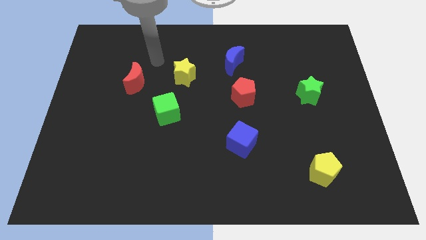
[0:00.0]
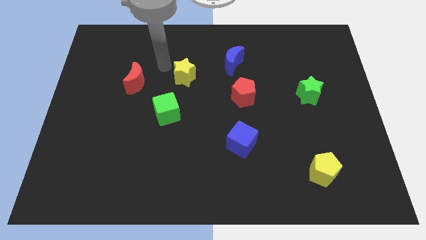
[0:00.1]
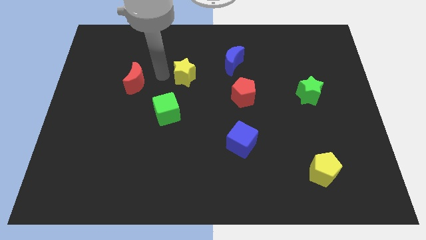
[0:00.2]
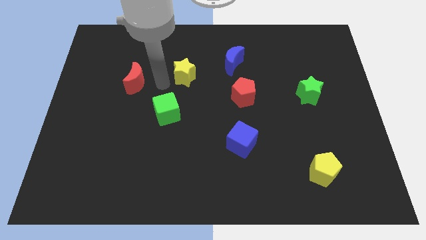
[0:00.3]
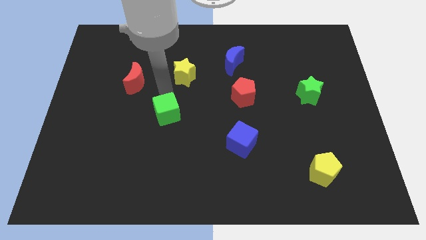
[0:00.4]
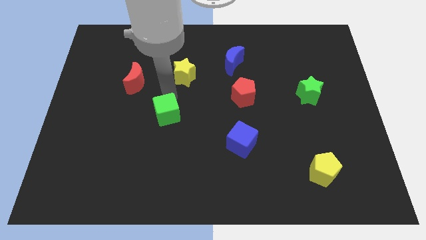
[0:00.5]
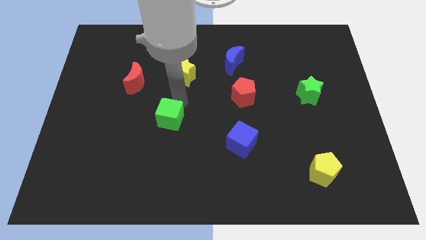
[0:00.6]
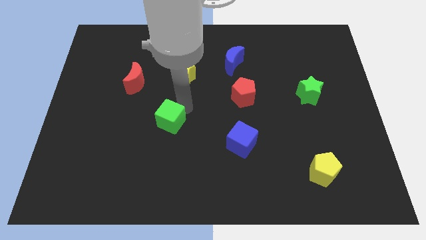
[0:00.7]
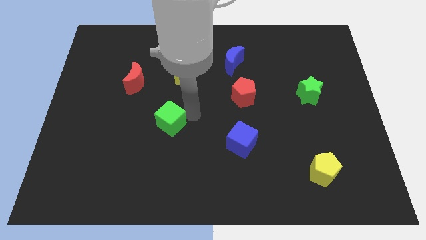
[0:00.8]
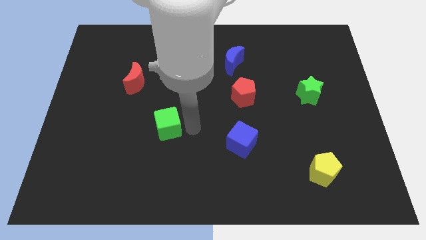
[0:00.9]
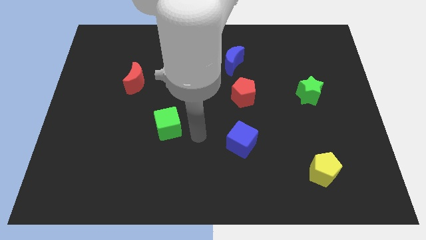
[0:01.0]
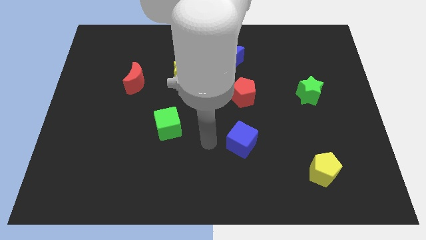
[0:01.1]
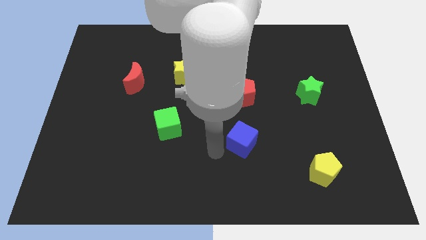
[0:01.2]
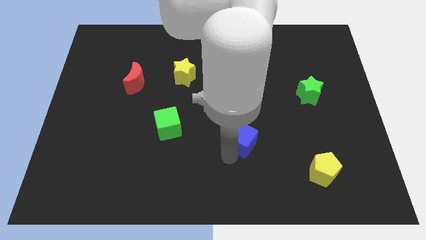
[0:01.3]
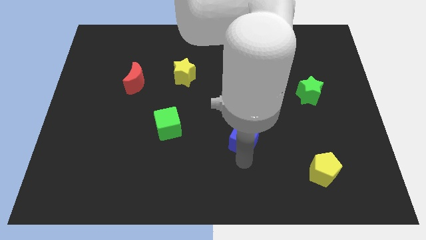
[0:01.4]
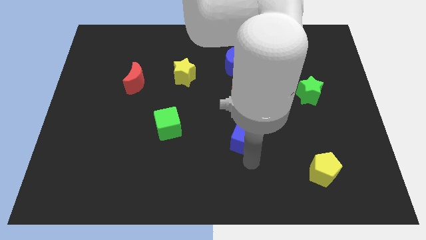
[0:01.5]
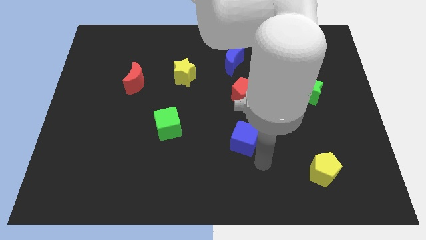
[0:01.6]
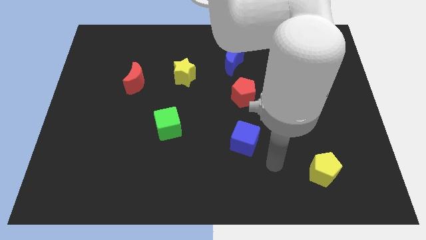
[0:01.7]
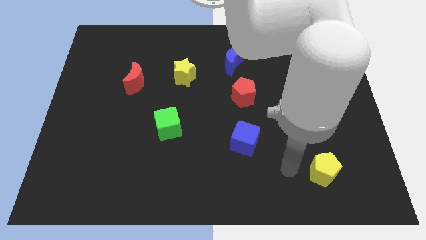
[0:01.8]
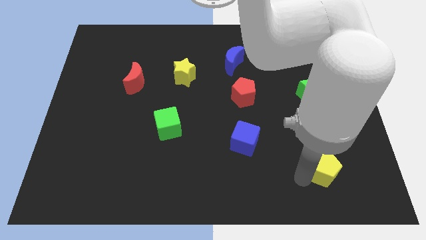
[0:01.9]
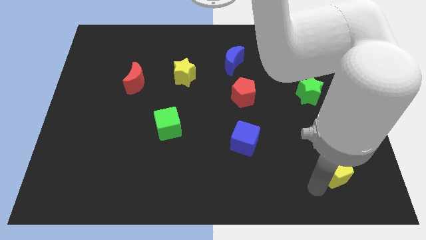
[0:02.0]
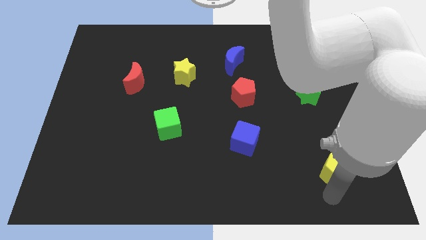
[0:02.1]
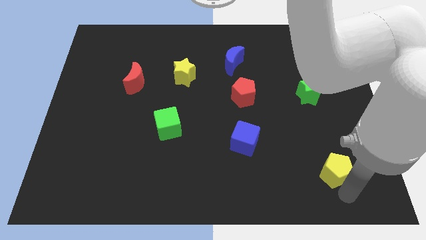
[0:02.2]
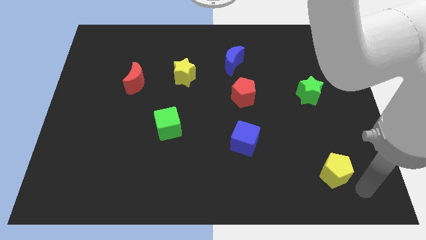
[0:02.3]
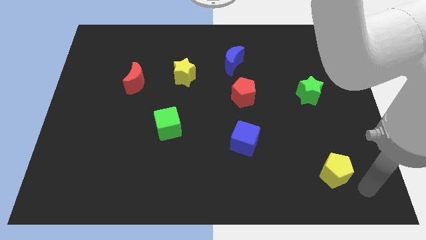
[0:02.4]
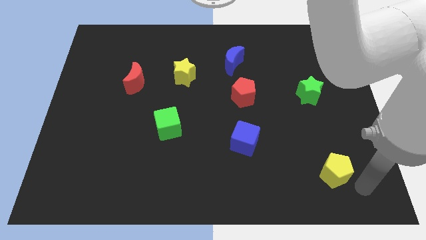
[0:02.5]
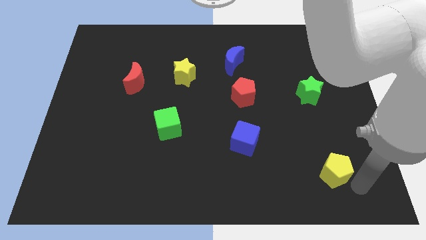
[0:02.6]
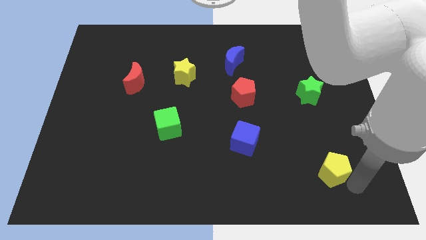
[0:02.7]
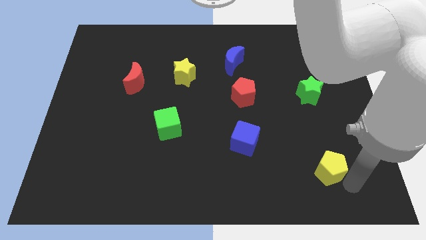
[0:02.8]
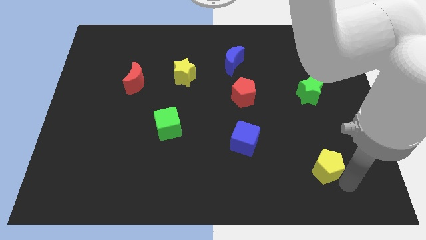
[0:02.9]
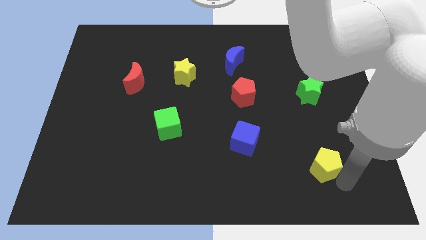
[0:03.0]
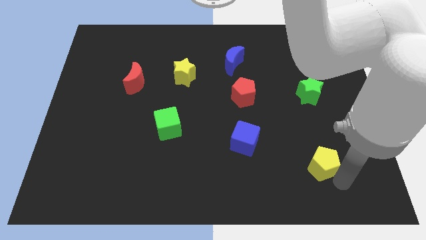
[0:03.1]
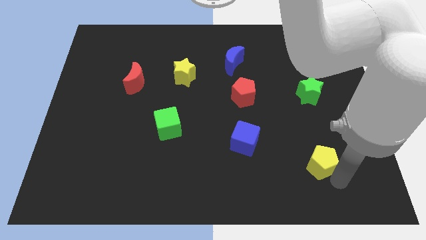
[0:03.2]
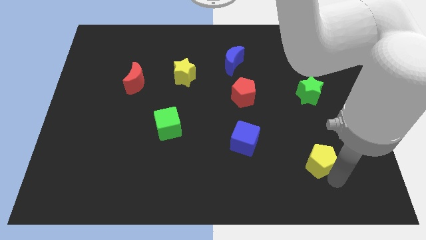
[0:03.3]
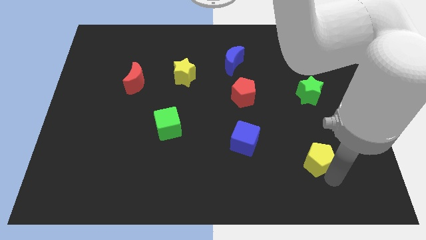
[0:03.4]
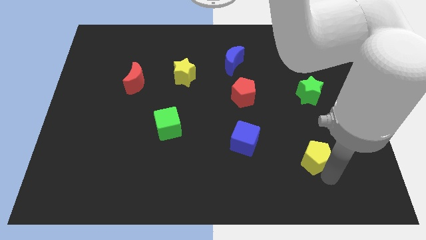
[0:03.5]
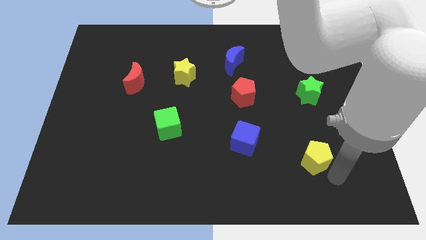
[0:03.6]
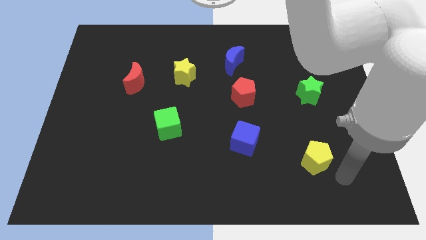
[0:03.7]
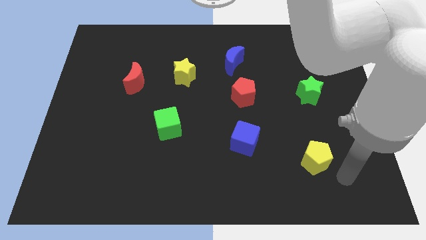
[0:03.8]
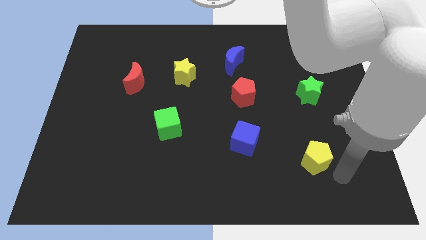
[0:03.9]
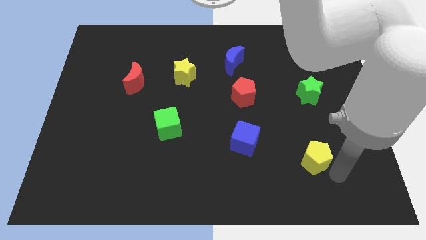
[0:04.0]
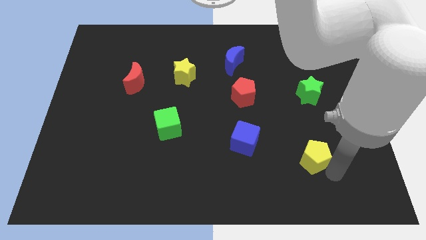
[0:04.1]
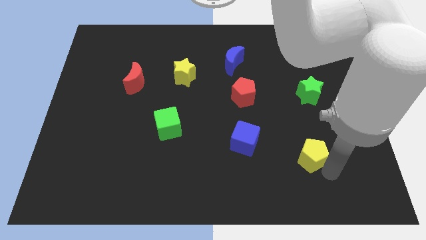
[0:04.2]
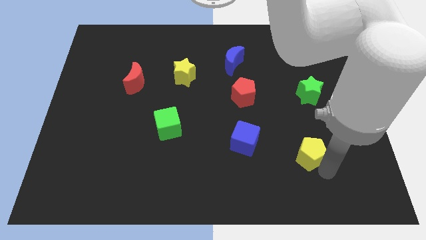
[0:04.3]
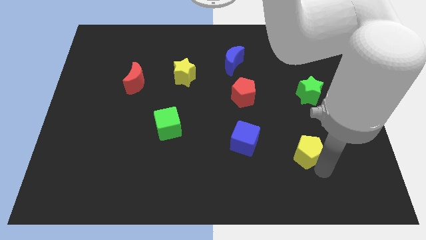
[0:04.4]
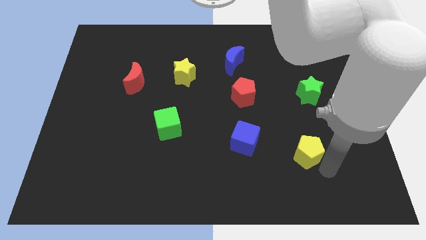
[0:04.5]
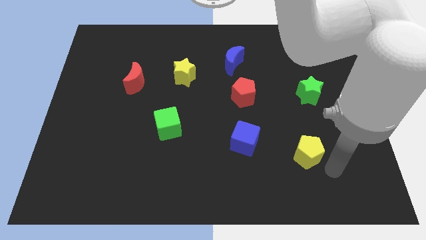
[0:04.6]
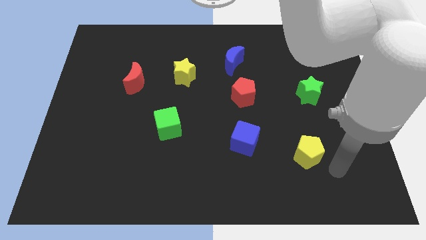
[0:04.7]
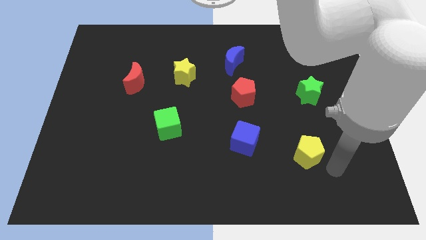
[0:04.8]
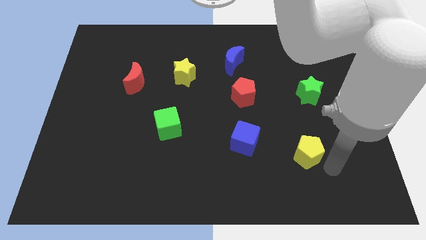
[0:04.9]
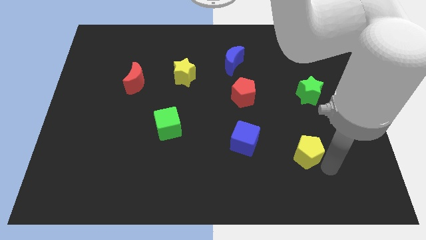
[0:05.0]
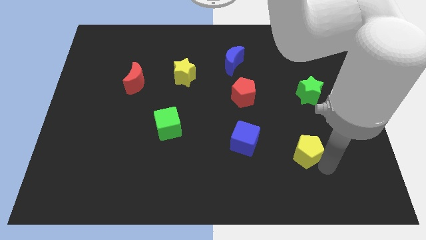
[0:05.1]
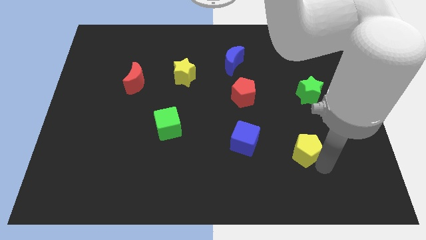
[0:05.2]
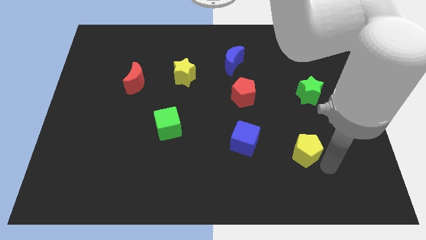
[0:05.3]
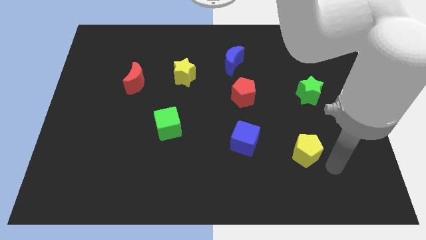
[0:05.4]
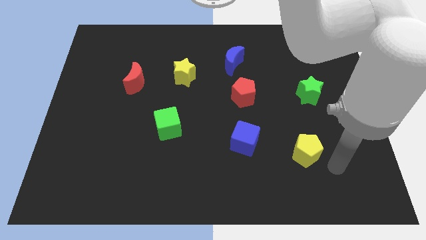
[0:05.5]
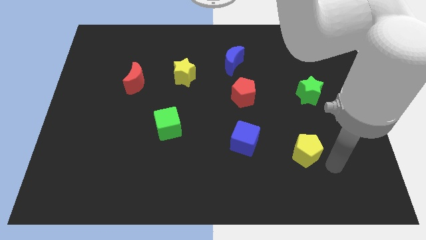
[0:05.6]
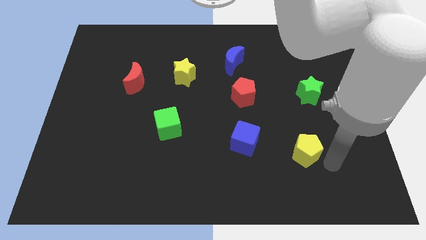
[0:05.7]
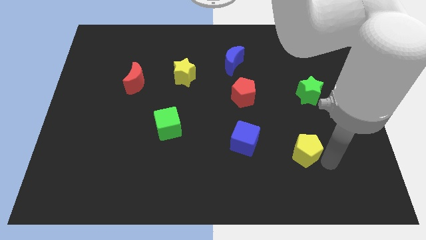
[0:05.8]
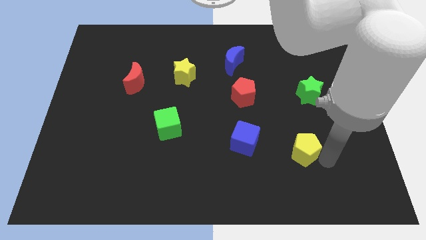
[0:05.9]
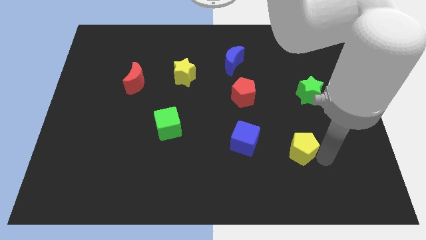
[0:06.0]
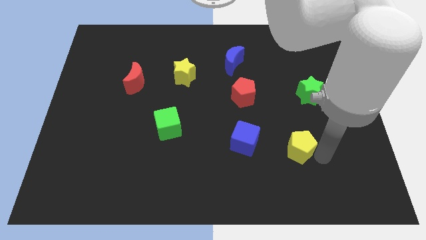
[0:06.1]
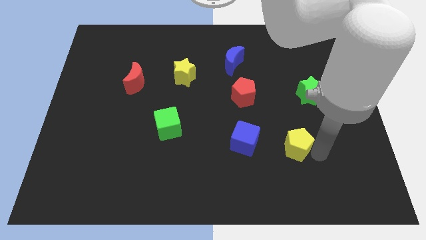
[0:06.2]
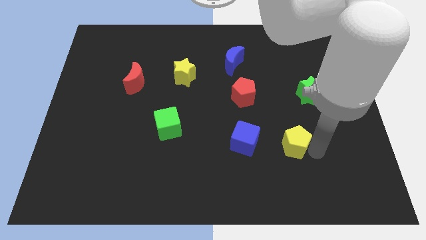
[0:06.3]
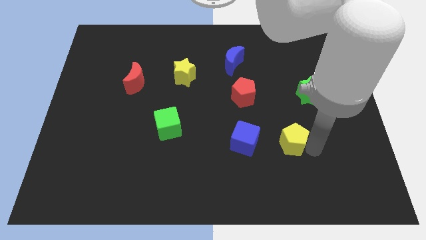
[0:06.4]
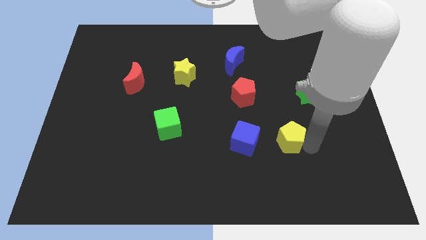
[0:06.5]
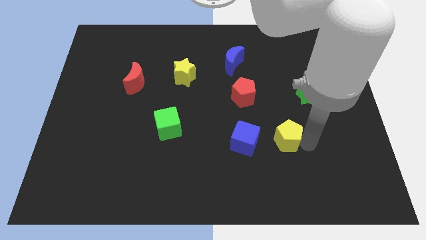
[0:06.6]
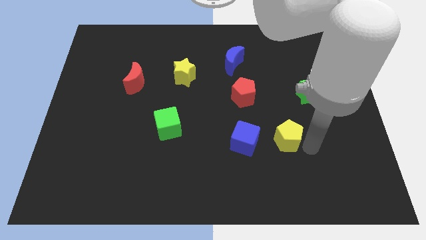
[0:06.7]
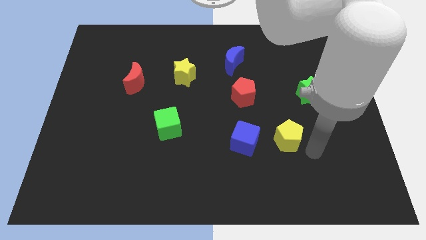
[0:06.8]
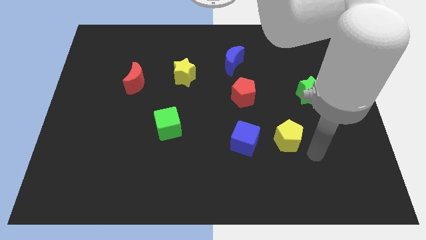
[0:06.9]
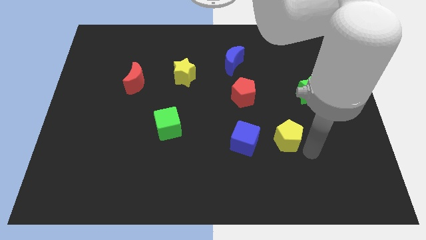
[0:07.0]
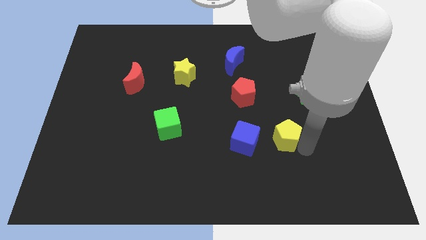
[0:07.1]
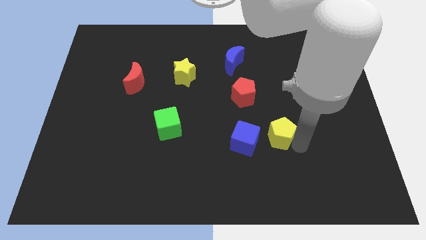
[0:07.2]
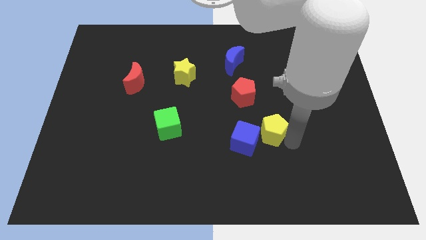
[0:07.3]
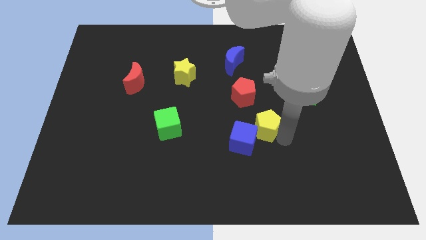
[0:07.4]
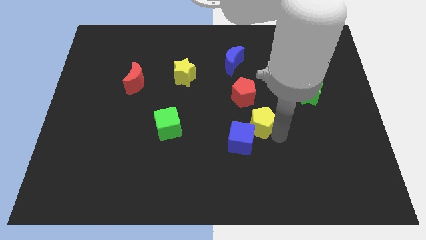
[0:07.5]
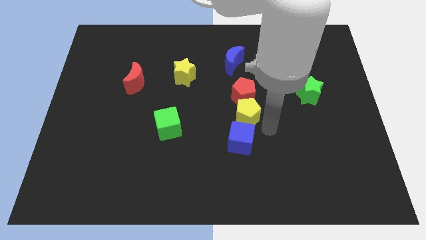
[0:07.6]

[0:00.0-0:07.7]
slide the yellow pentagon to the center
